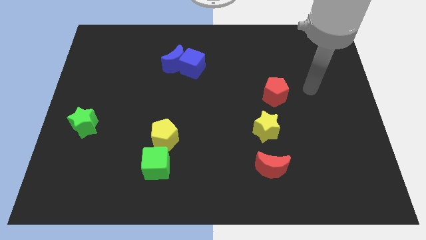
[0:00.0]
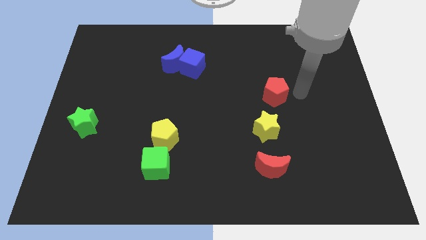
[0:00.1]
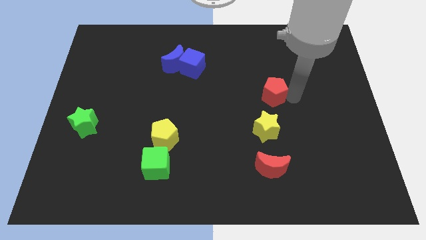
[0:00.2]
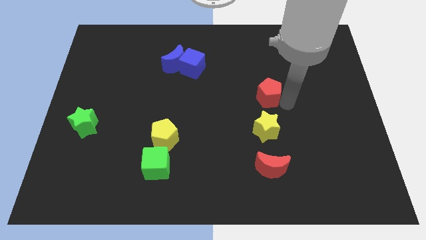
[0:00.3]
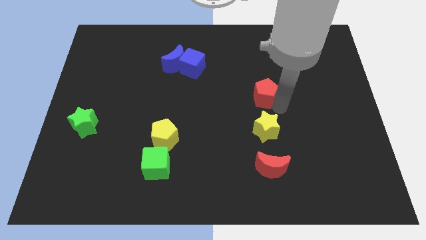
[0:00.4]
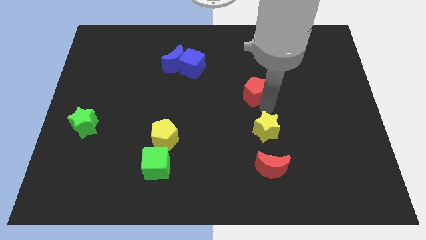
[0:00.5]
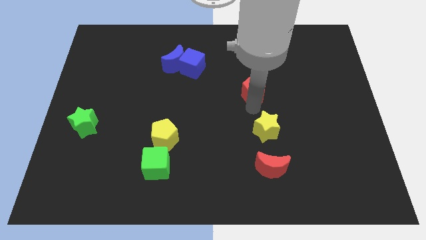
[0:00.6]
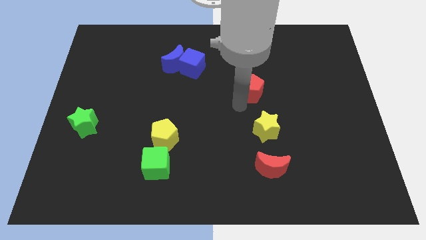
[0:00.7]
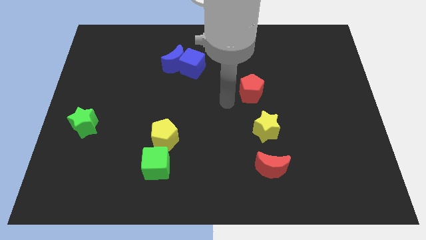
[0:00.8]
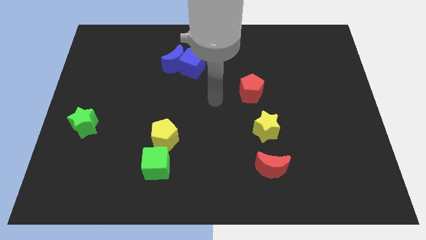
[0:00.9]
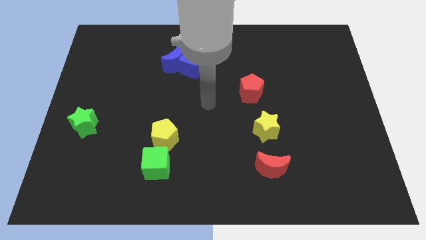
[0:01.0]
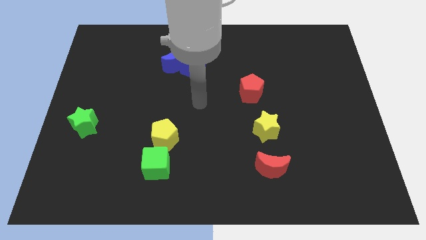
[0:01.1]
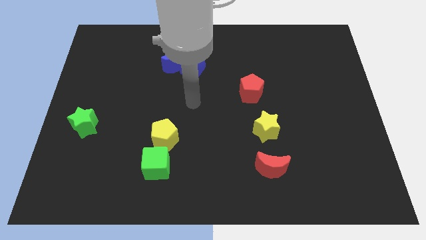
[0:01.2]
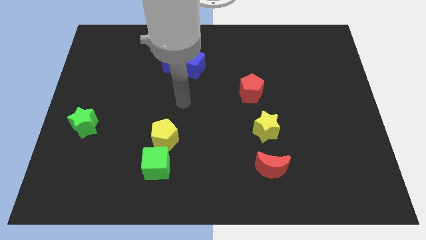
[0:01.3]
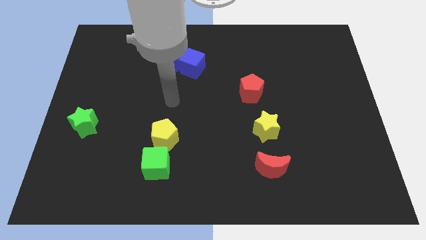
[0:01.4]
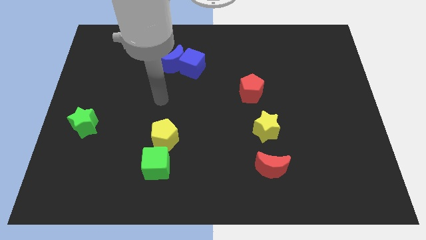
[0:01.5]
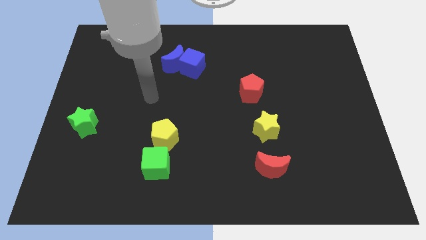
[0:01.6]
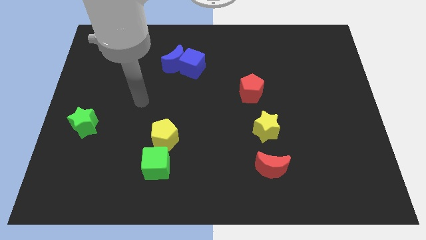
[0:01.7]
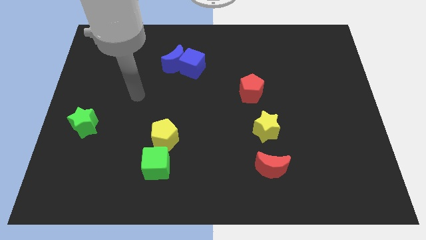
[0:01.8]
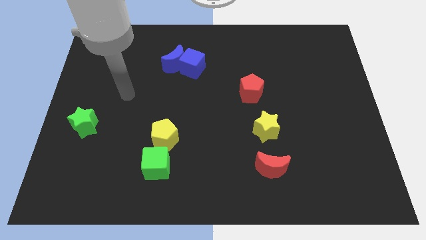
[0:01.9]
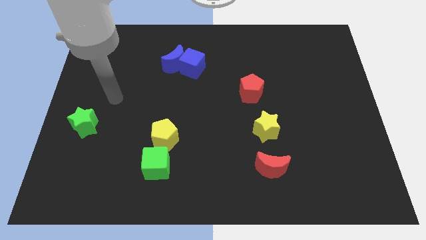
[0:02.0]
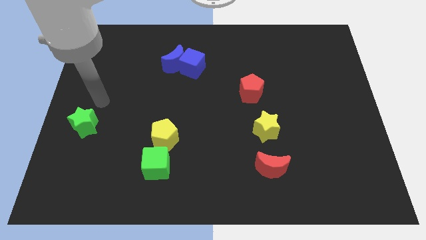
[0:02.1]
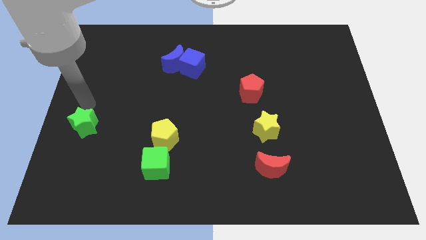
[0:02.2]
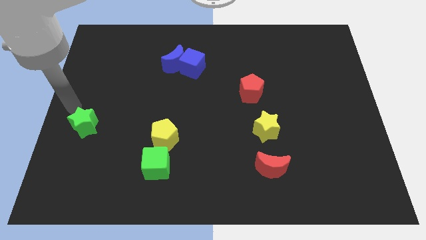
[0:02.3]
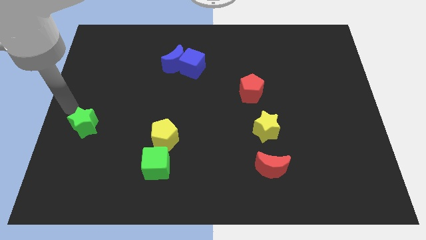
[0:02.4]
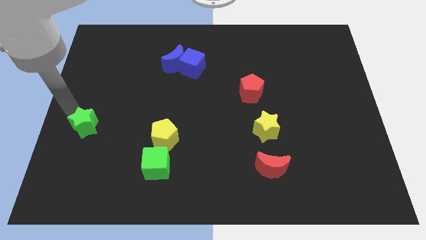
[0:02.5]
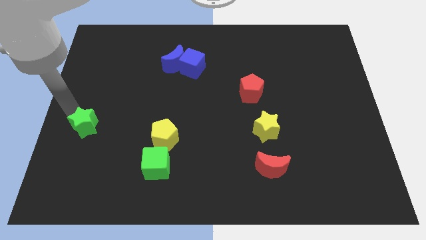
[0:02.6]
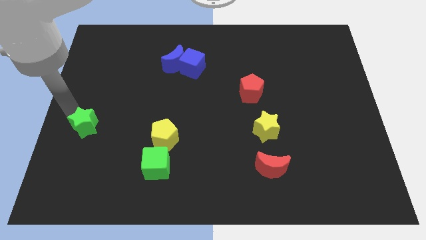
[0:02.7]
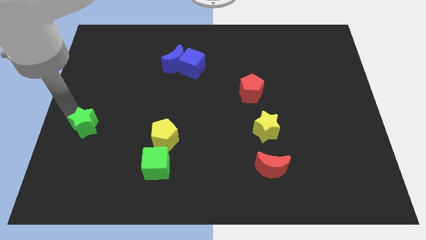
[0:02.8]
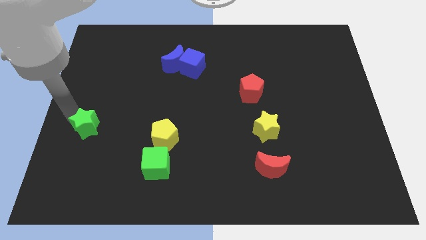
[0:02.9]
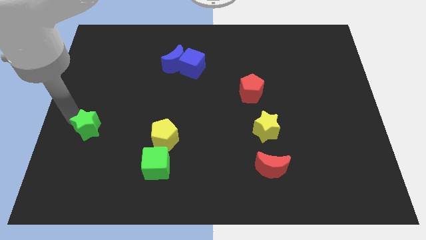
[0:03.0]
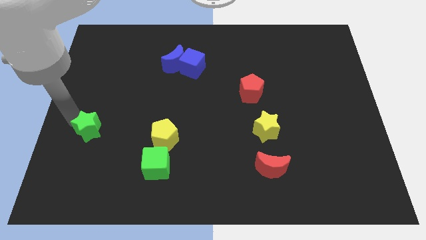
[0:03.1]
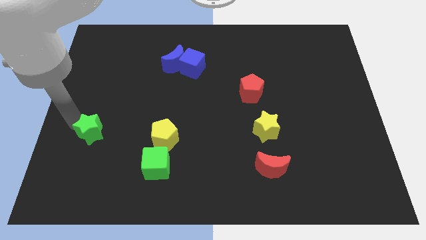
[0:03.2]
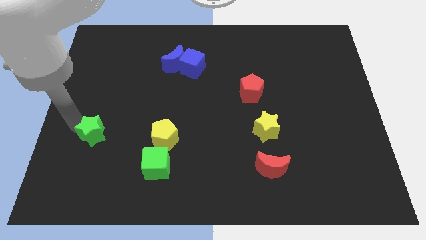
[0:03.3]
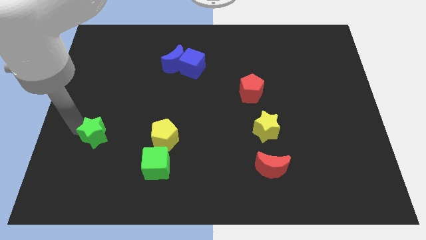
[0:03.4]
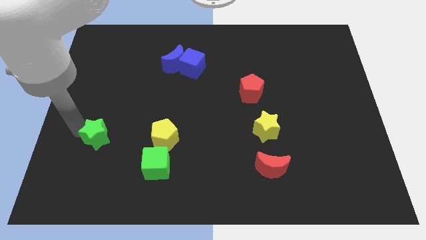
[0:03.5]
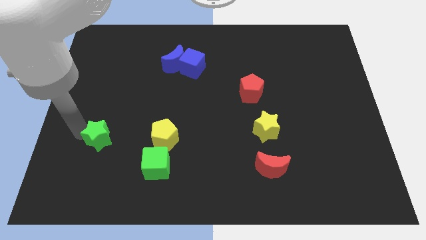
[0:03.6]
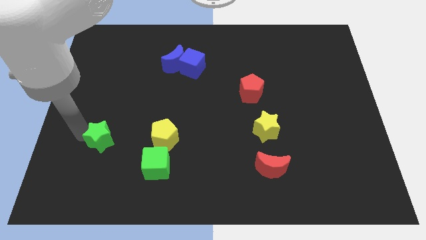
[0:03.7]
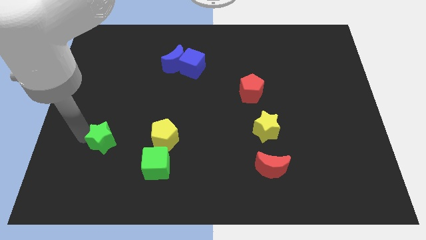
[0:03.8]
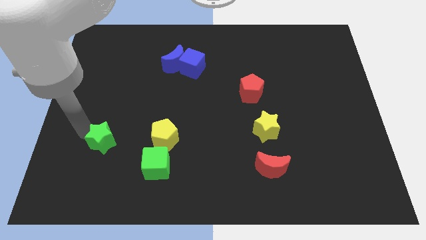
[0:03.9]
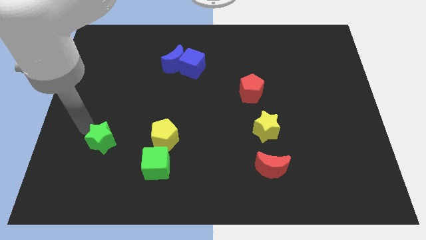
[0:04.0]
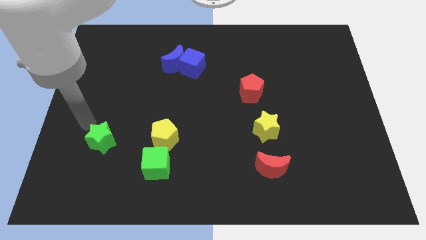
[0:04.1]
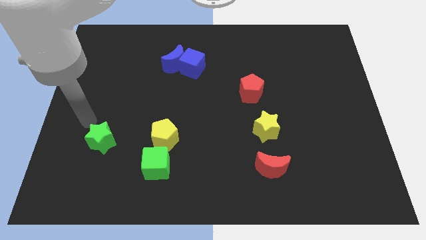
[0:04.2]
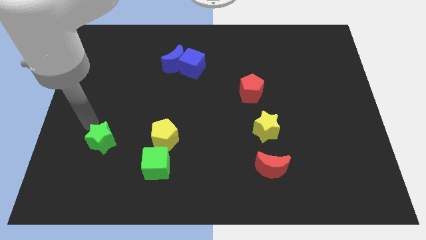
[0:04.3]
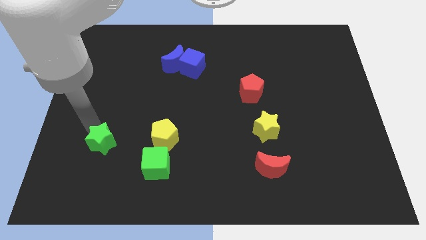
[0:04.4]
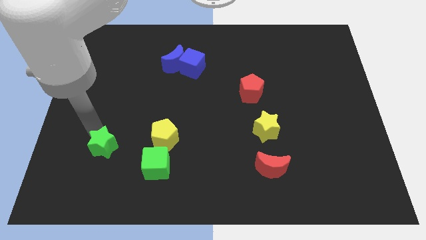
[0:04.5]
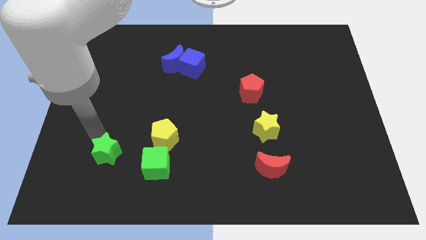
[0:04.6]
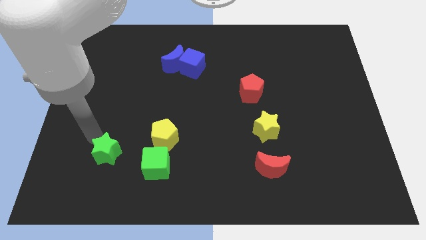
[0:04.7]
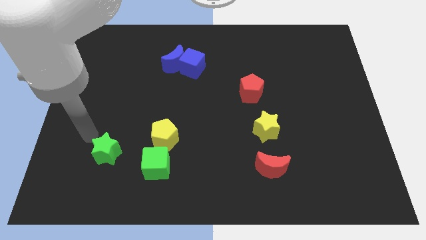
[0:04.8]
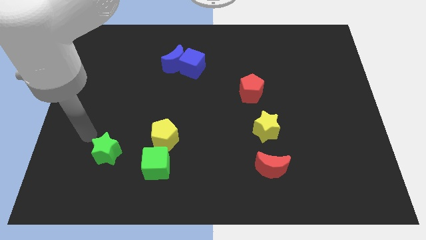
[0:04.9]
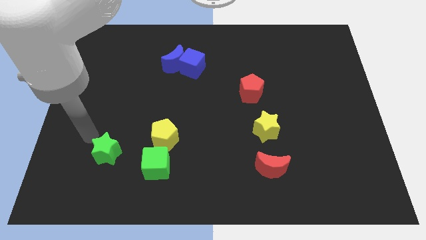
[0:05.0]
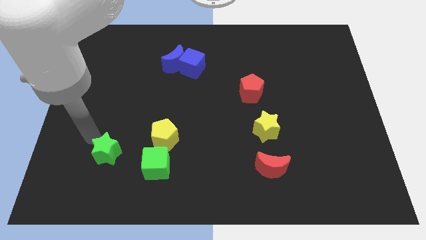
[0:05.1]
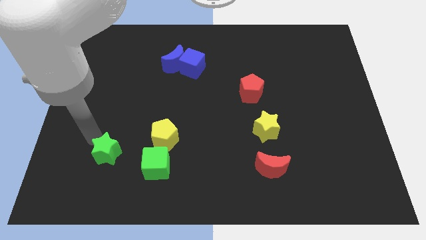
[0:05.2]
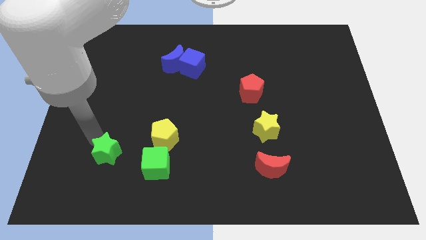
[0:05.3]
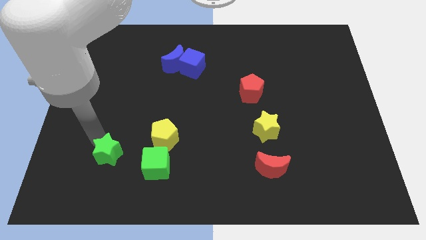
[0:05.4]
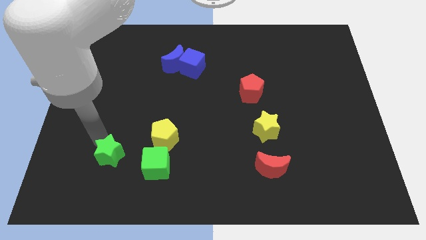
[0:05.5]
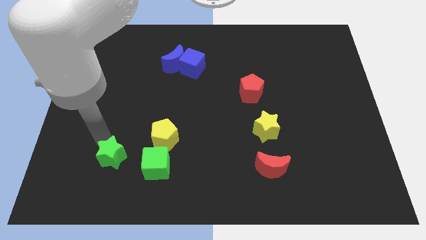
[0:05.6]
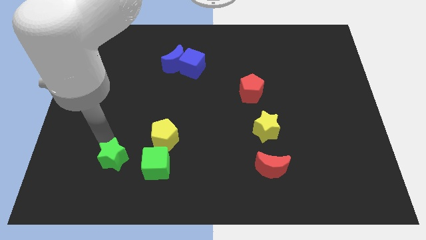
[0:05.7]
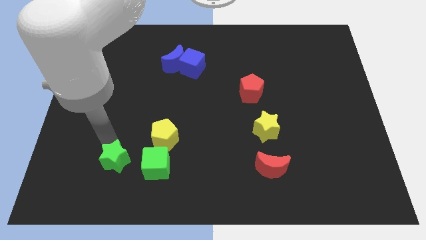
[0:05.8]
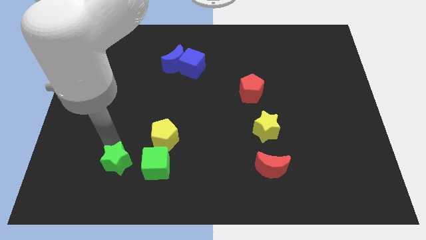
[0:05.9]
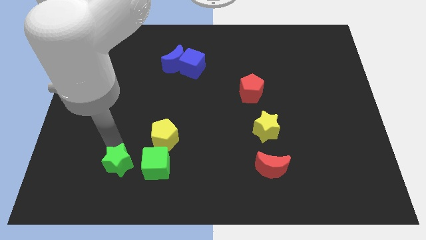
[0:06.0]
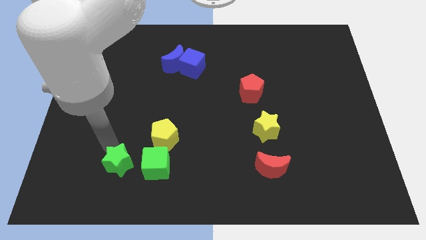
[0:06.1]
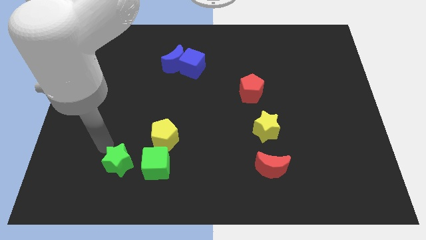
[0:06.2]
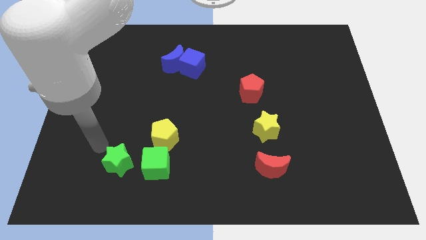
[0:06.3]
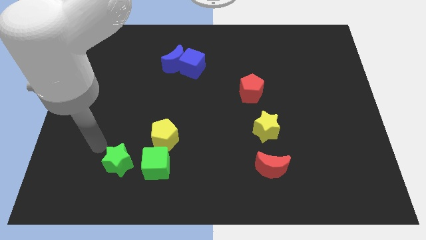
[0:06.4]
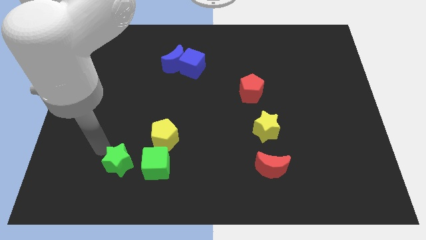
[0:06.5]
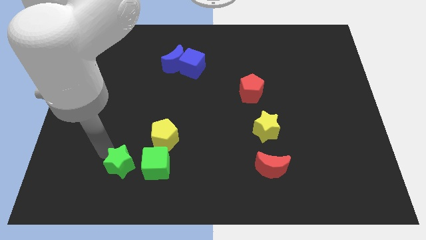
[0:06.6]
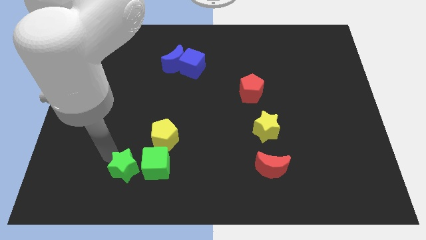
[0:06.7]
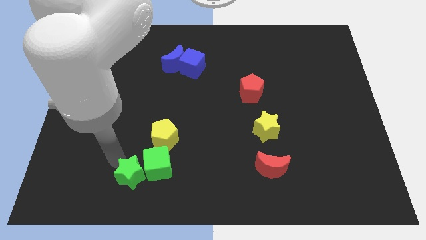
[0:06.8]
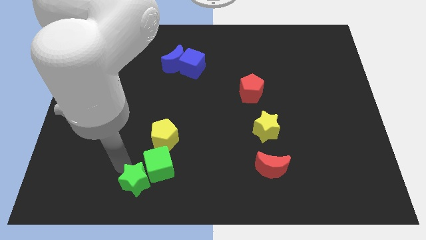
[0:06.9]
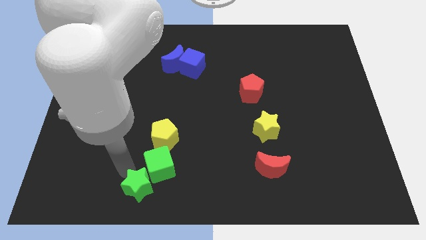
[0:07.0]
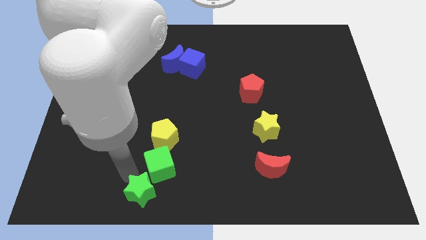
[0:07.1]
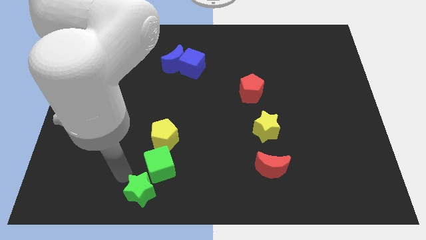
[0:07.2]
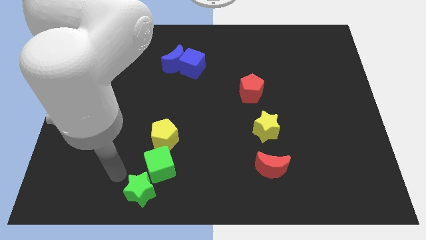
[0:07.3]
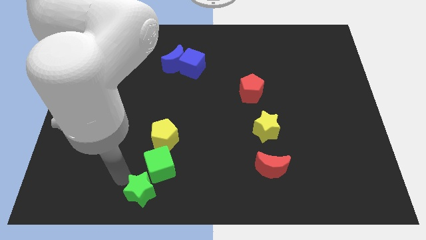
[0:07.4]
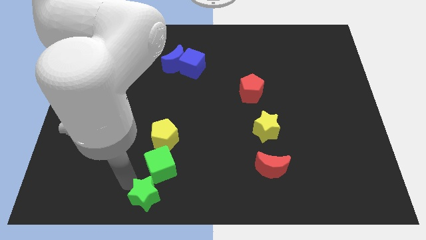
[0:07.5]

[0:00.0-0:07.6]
slide the green star to the bottom

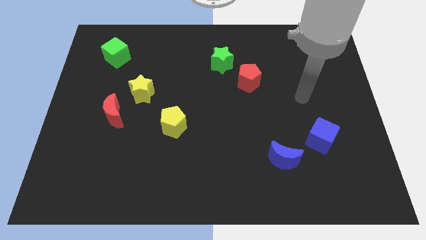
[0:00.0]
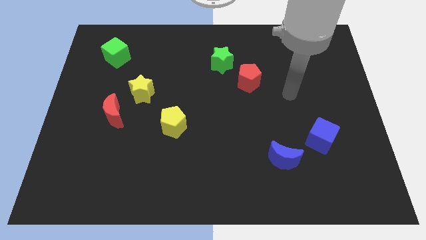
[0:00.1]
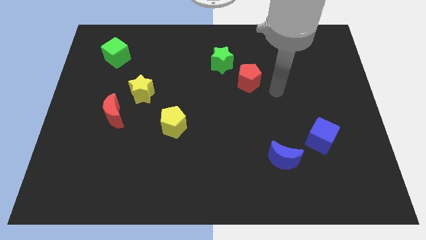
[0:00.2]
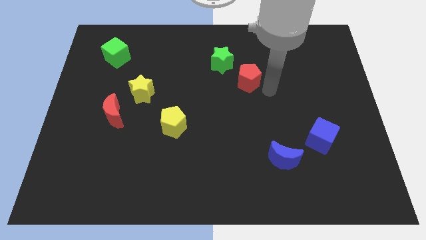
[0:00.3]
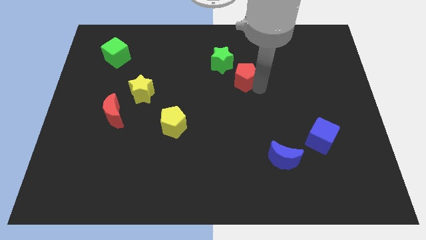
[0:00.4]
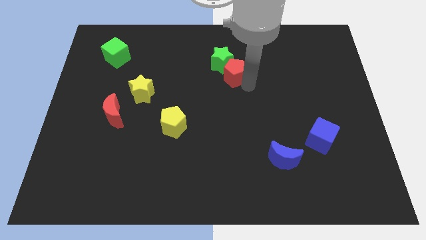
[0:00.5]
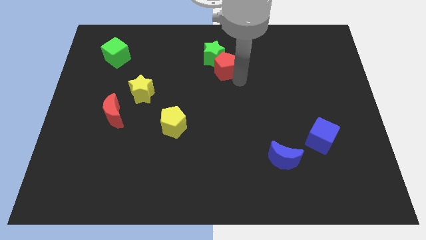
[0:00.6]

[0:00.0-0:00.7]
move the green star to the towards your base
